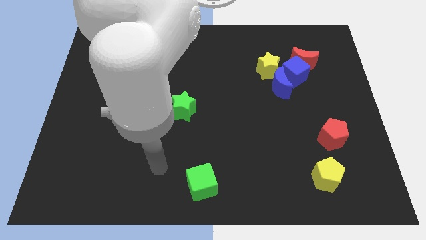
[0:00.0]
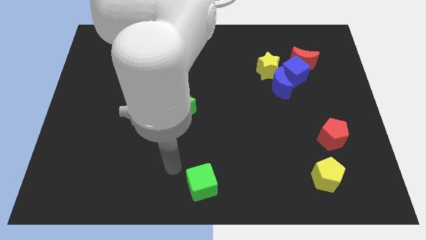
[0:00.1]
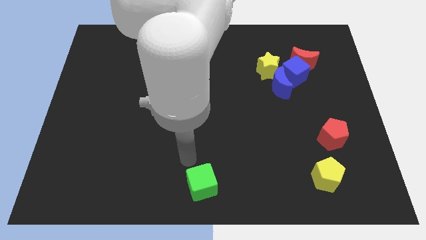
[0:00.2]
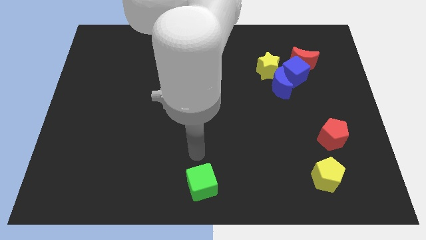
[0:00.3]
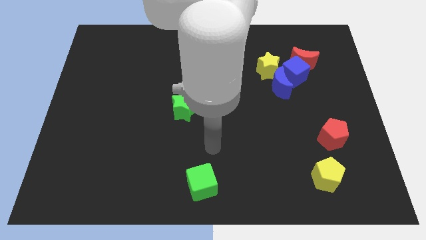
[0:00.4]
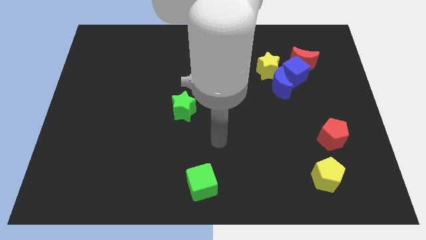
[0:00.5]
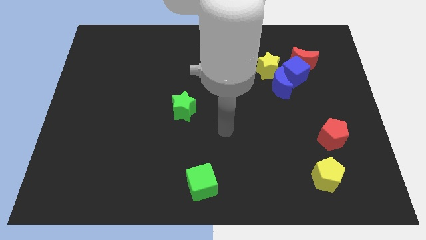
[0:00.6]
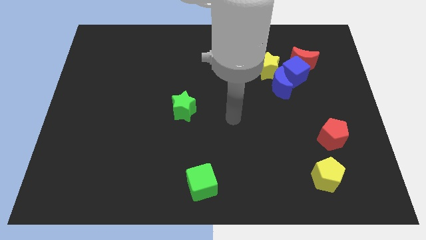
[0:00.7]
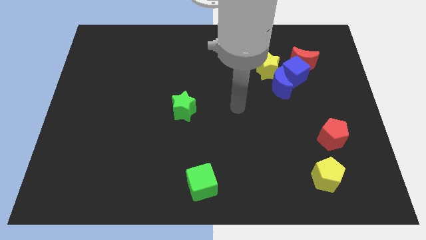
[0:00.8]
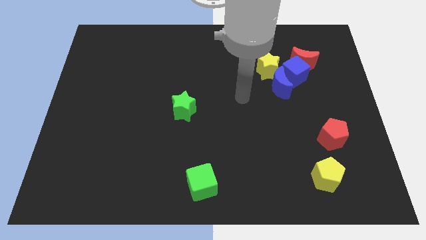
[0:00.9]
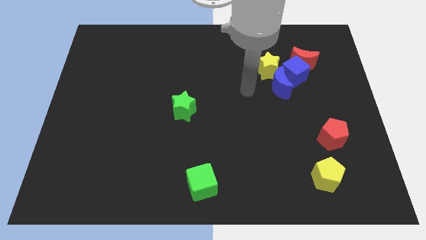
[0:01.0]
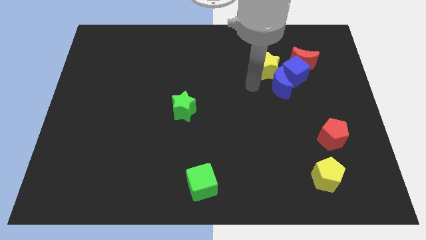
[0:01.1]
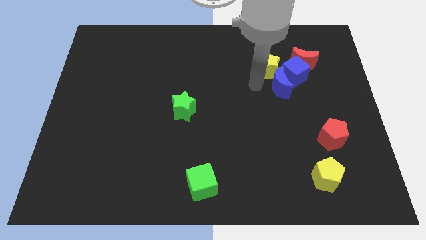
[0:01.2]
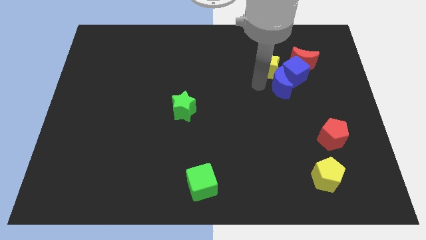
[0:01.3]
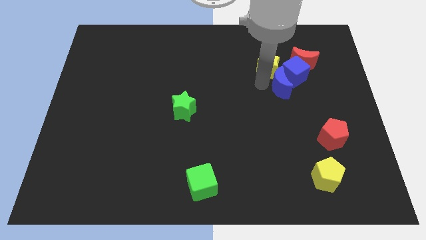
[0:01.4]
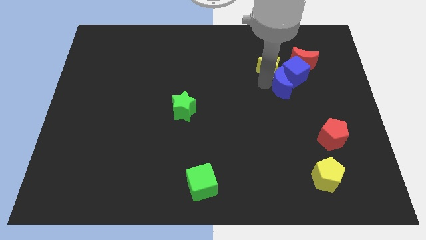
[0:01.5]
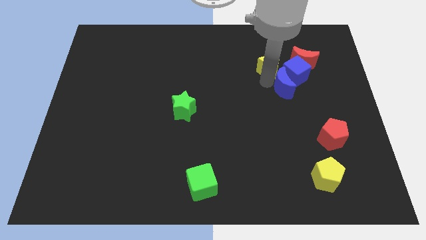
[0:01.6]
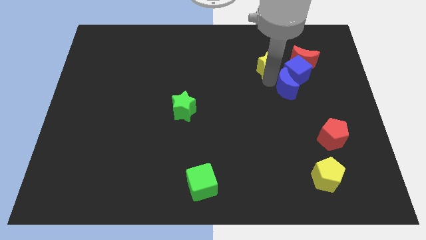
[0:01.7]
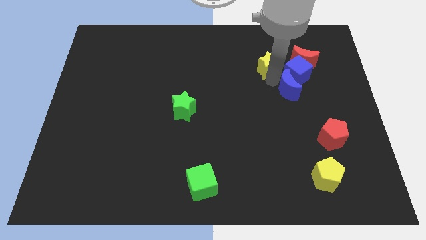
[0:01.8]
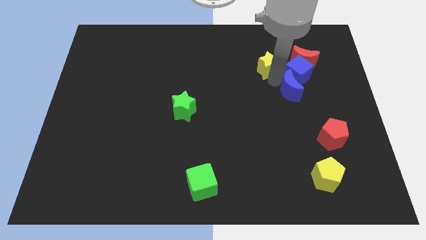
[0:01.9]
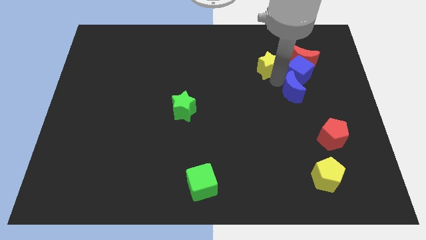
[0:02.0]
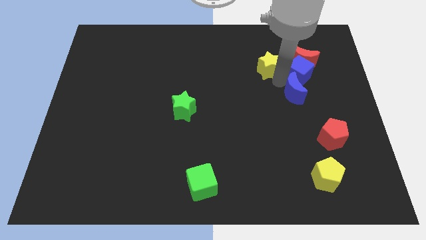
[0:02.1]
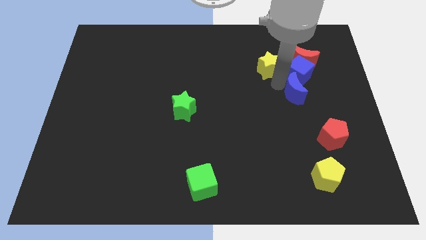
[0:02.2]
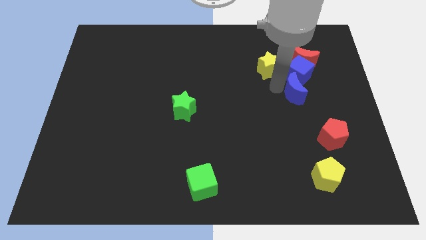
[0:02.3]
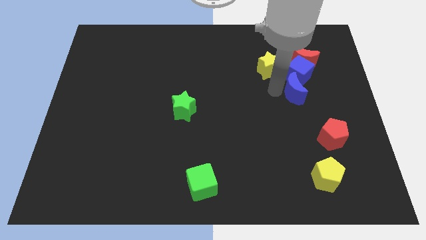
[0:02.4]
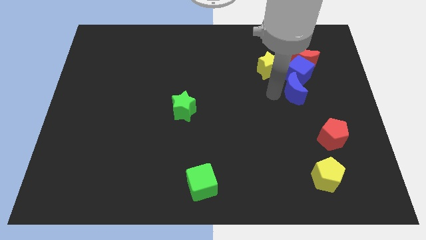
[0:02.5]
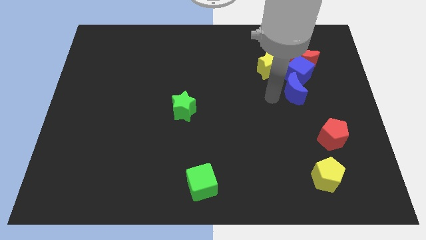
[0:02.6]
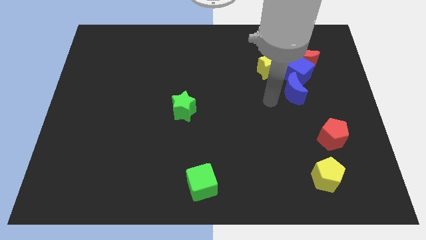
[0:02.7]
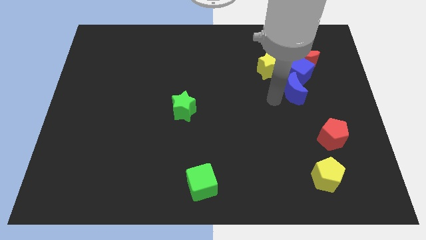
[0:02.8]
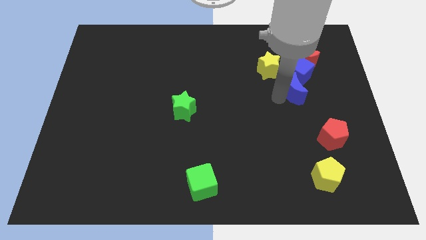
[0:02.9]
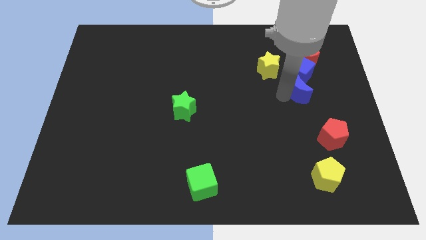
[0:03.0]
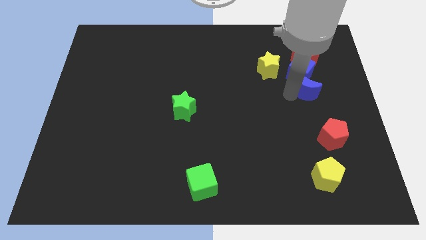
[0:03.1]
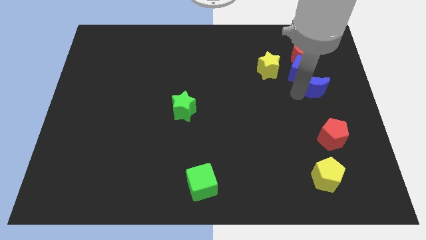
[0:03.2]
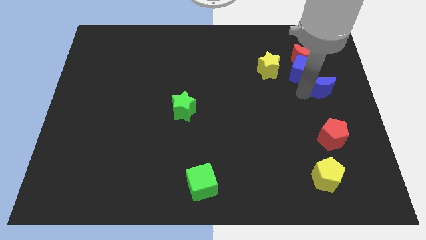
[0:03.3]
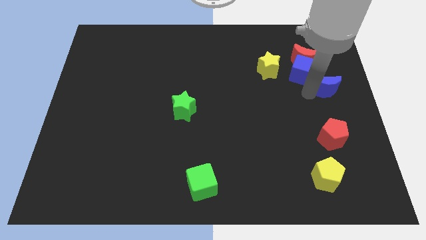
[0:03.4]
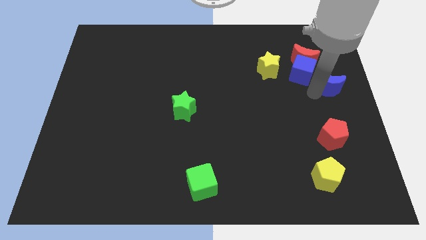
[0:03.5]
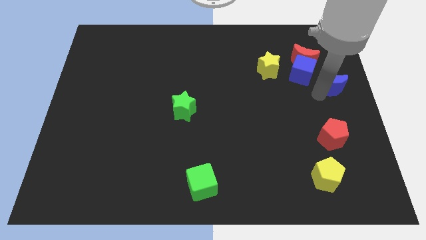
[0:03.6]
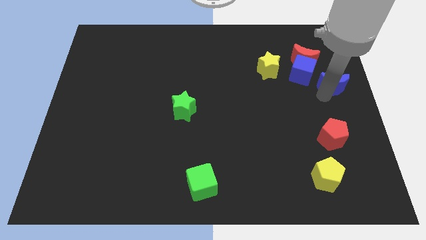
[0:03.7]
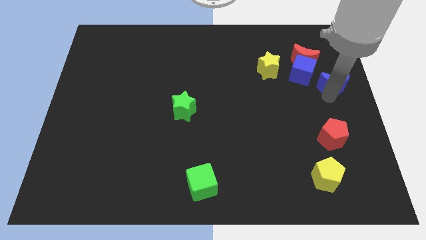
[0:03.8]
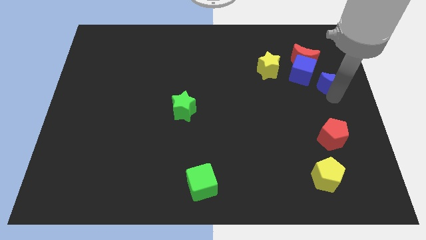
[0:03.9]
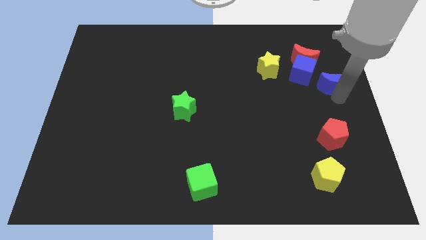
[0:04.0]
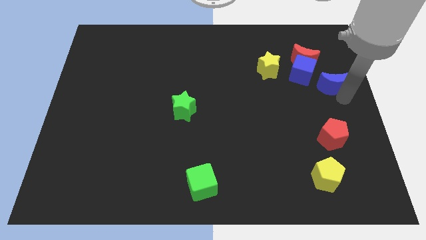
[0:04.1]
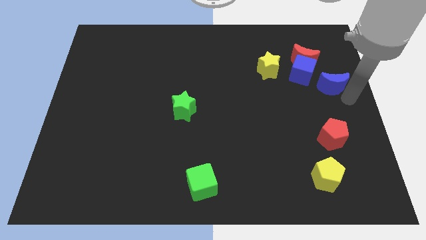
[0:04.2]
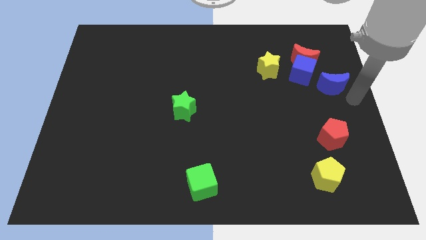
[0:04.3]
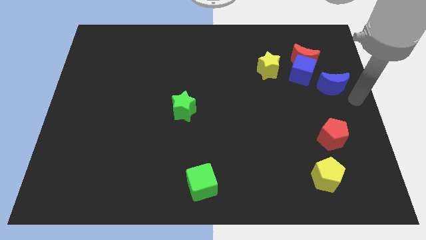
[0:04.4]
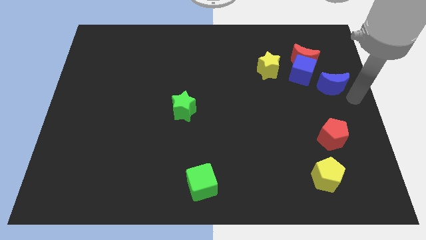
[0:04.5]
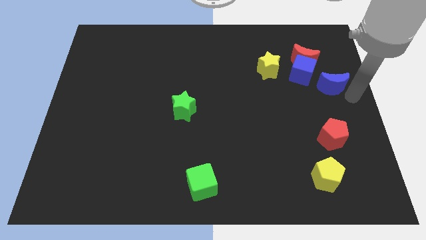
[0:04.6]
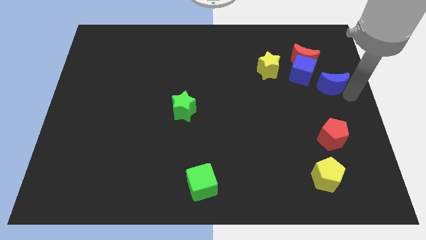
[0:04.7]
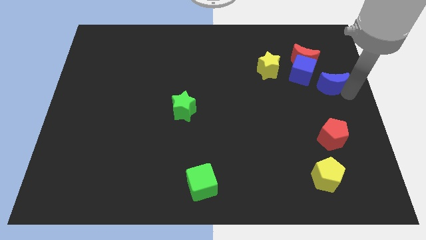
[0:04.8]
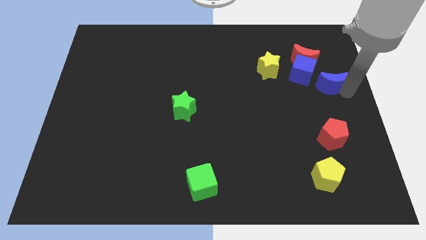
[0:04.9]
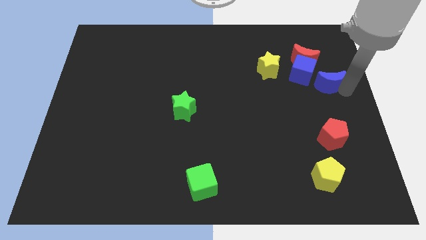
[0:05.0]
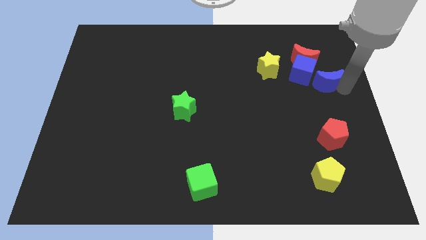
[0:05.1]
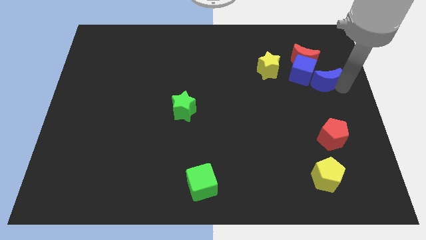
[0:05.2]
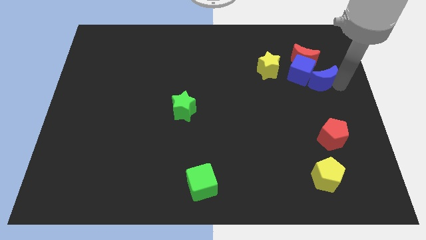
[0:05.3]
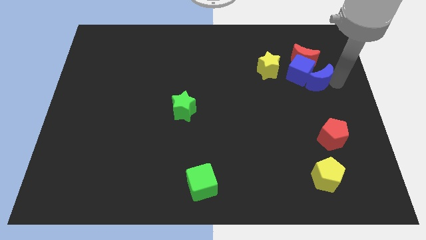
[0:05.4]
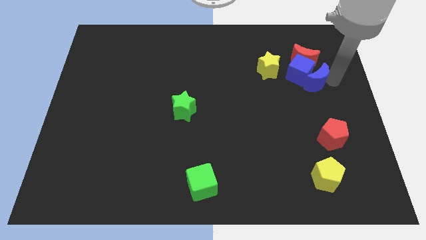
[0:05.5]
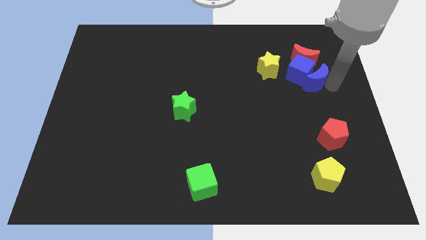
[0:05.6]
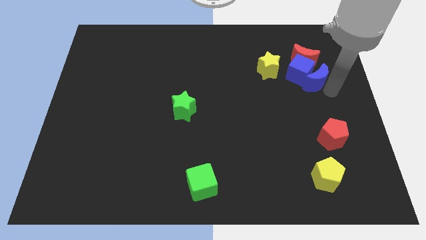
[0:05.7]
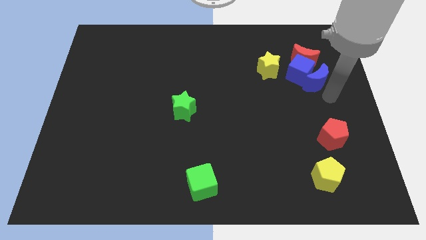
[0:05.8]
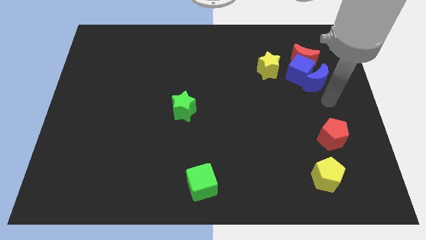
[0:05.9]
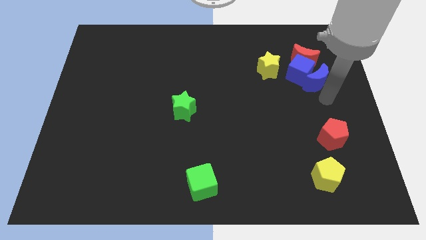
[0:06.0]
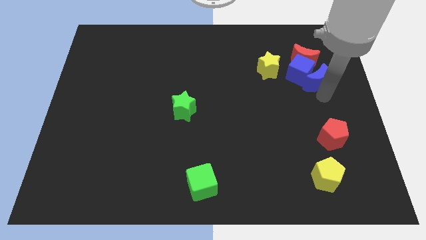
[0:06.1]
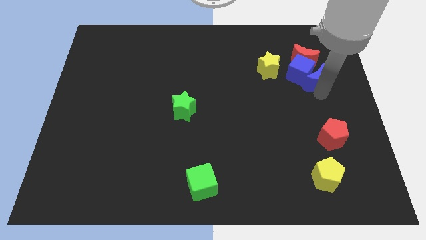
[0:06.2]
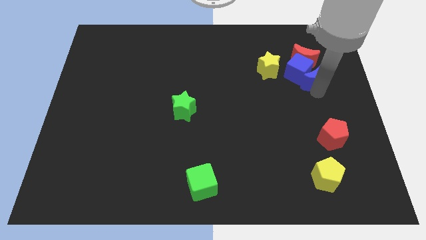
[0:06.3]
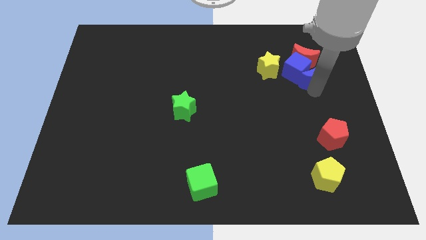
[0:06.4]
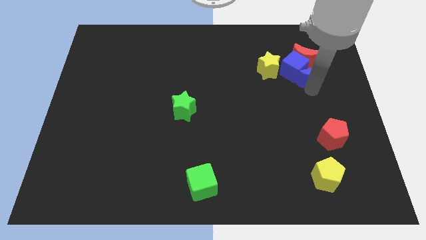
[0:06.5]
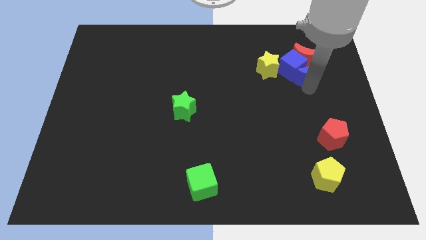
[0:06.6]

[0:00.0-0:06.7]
move the blue moon to the red moon
